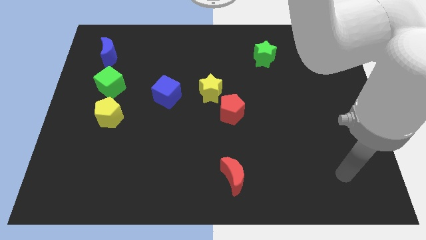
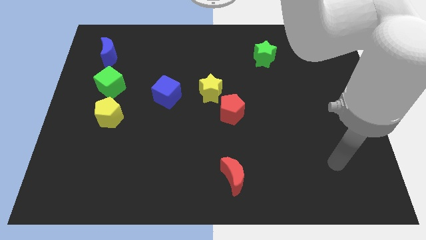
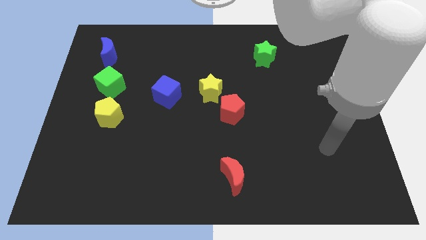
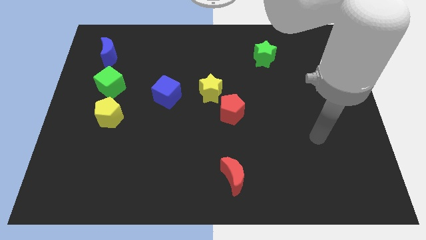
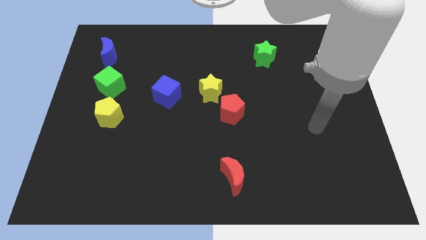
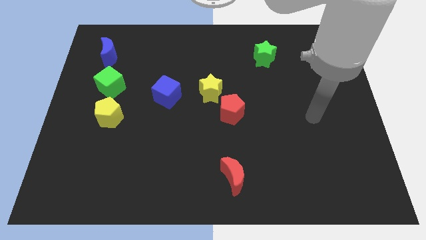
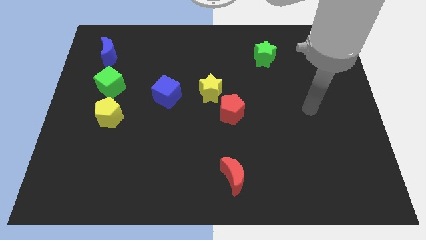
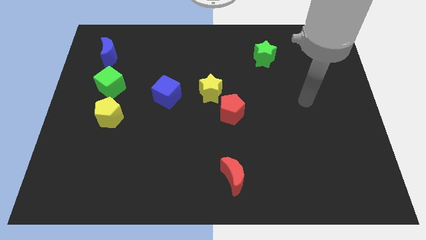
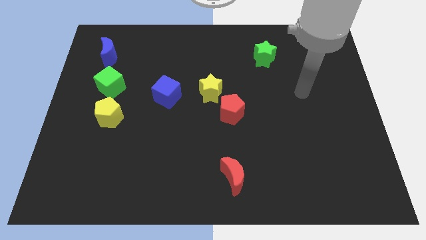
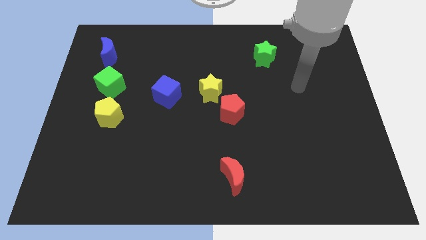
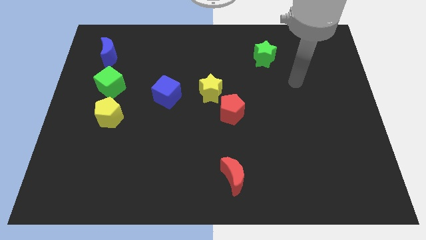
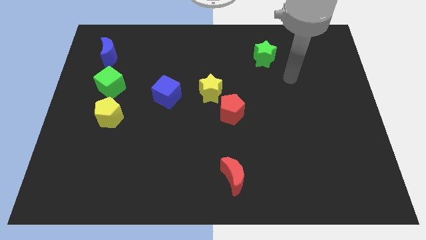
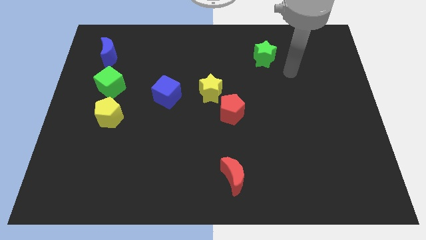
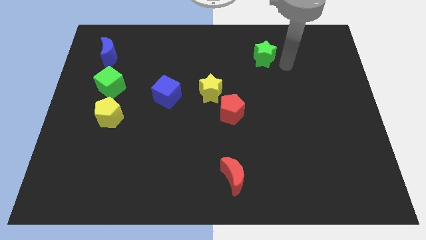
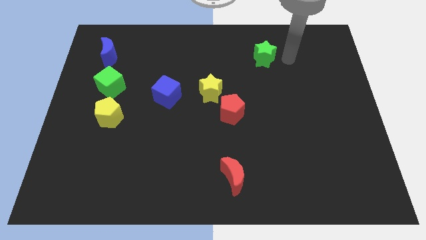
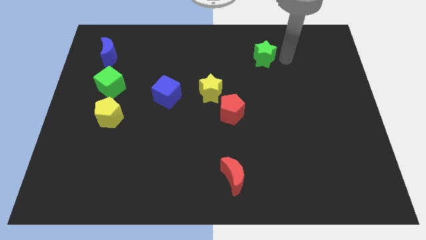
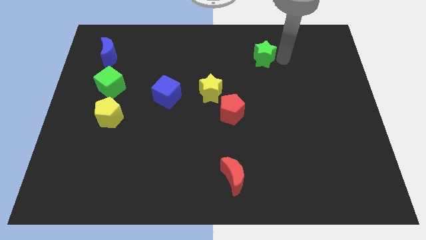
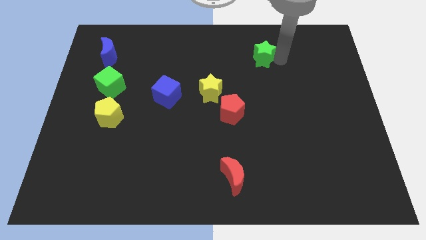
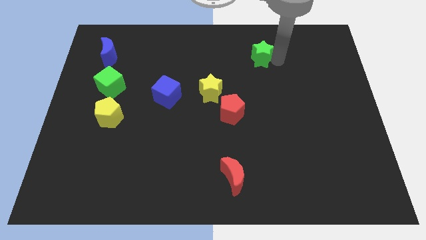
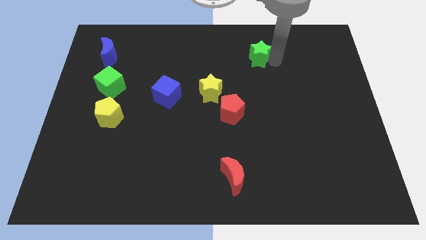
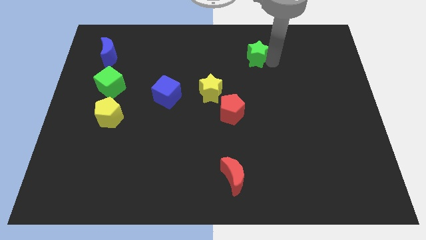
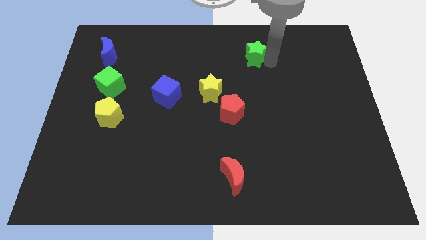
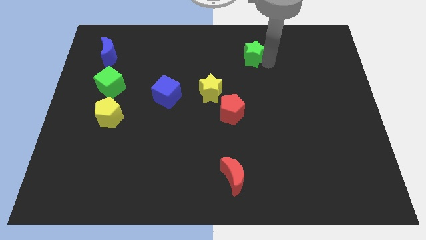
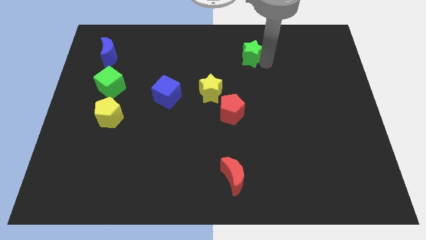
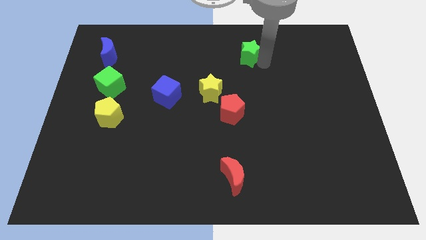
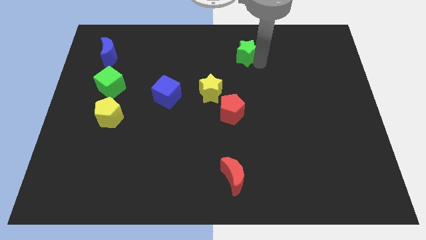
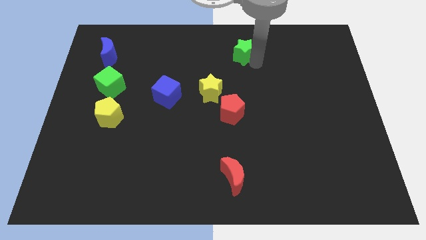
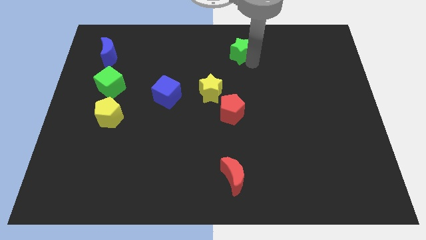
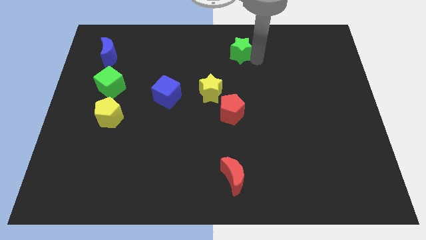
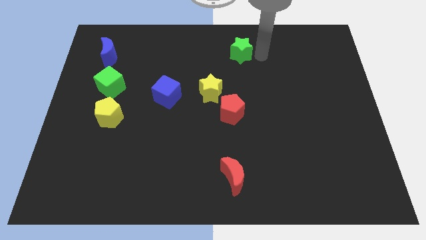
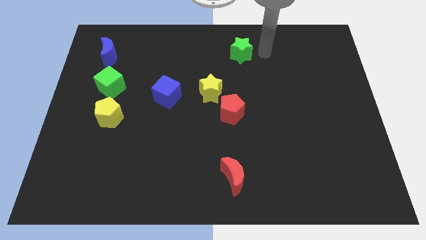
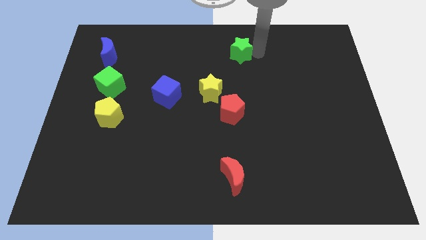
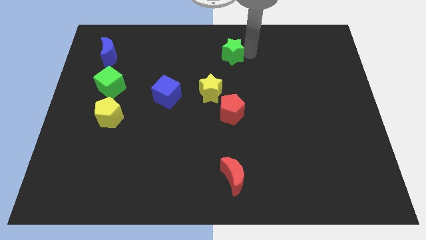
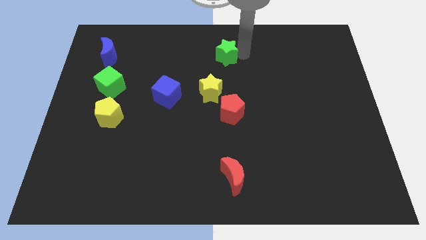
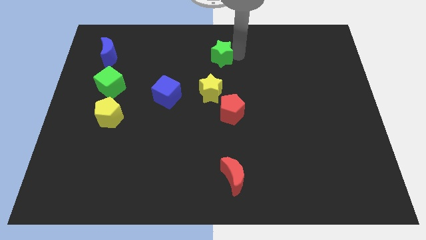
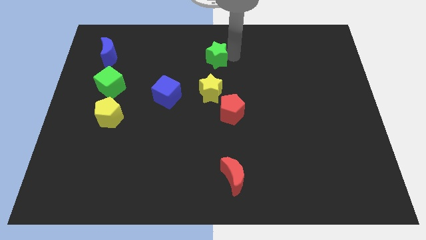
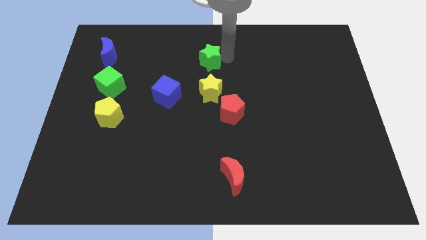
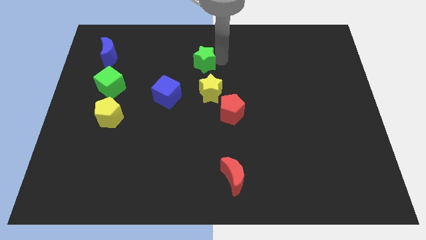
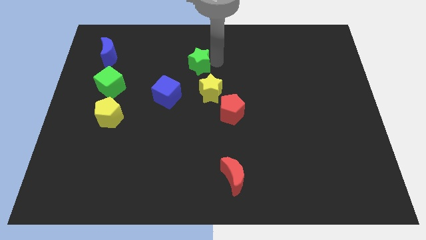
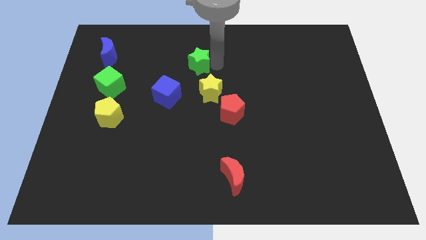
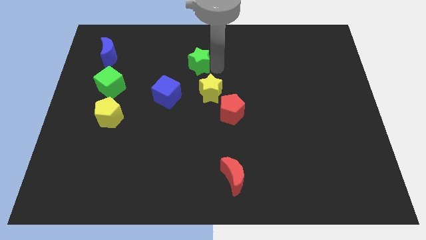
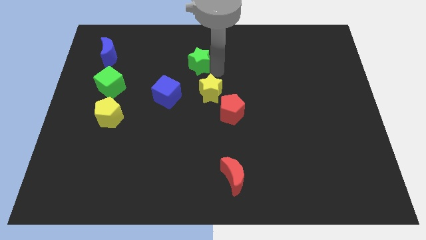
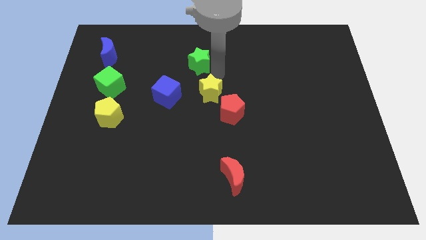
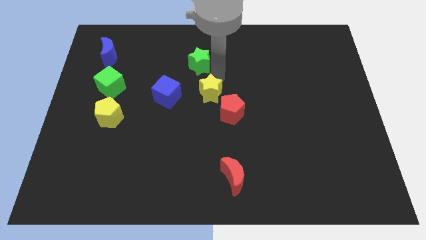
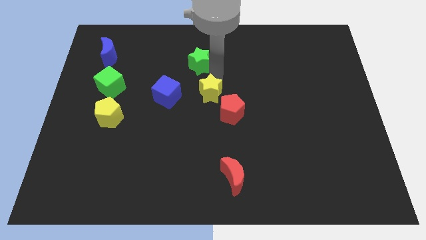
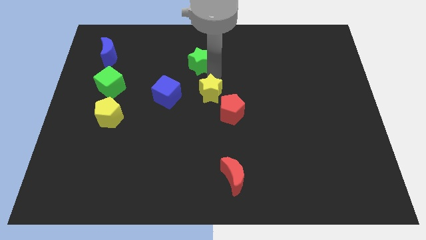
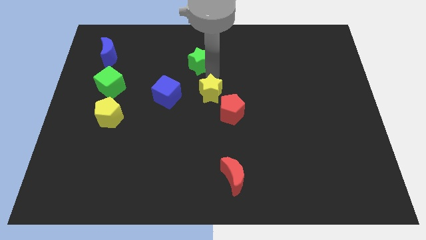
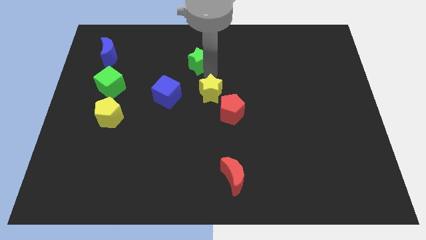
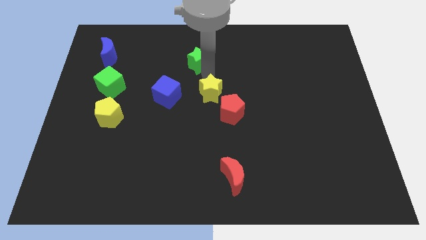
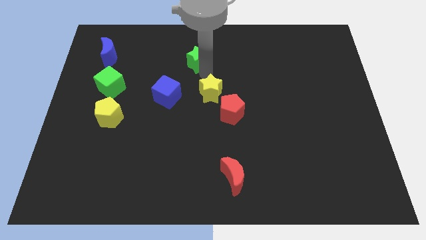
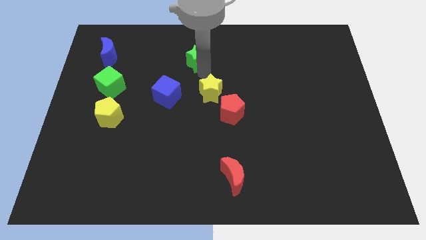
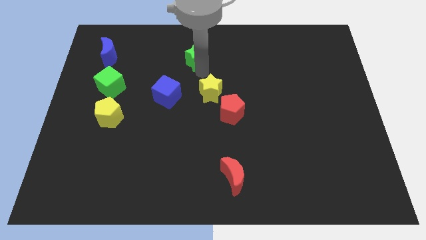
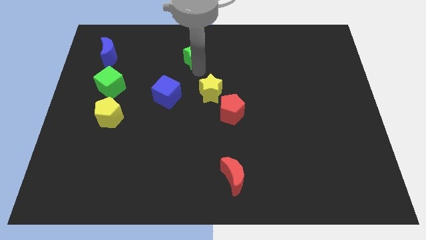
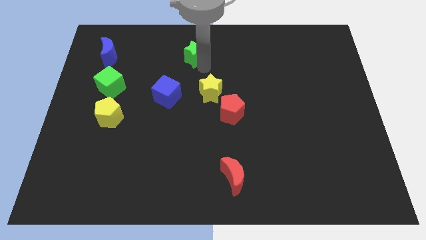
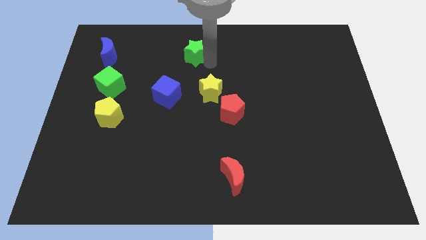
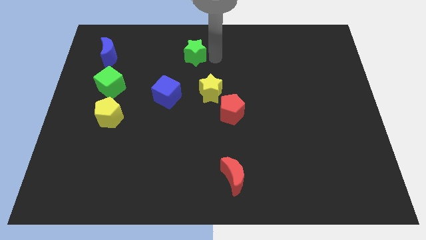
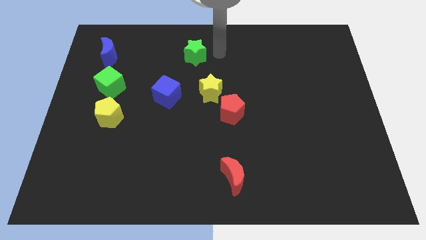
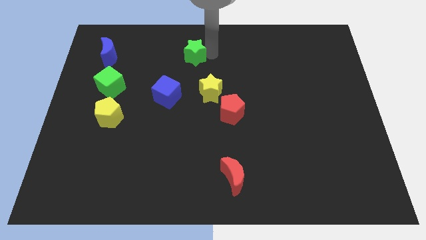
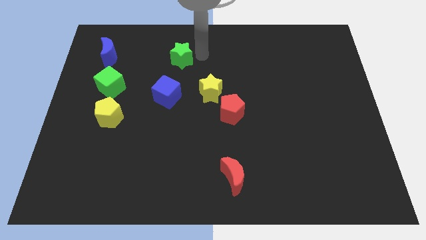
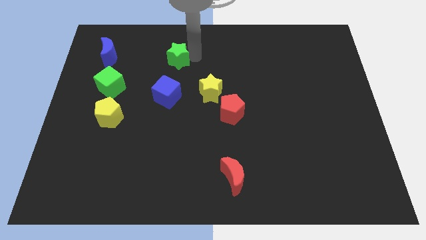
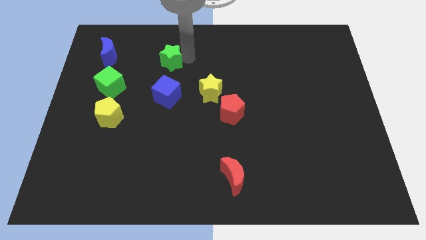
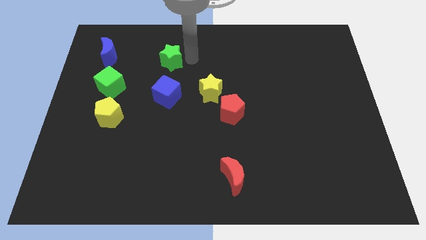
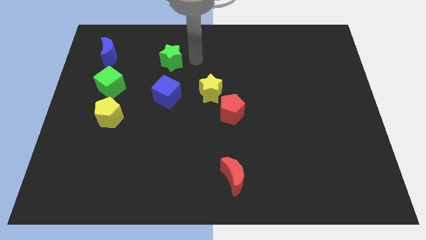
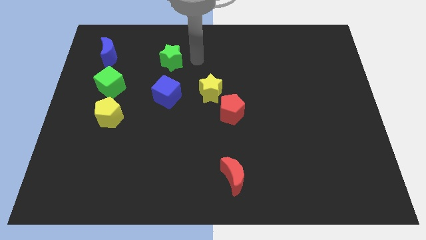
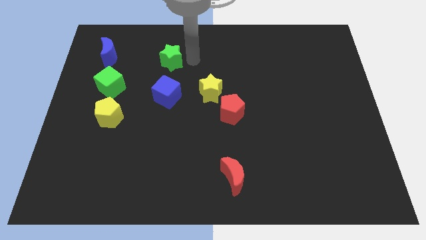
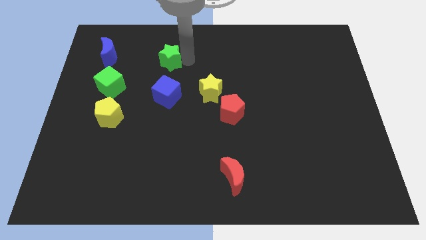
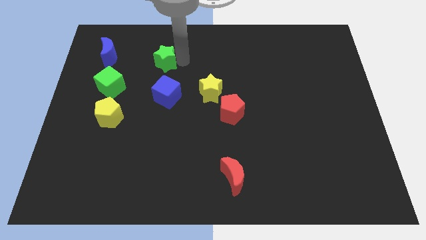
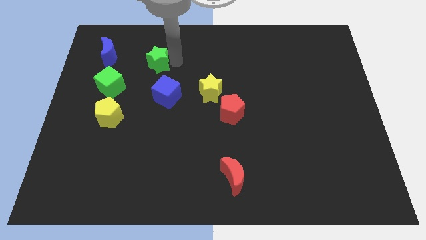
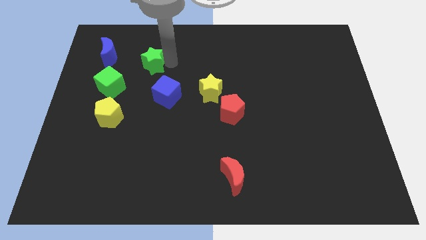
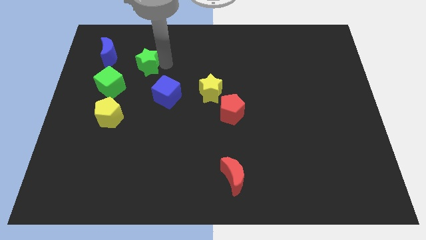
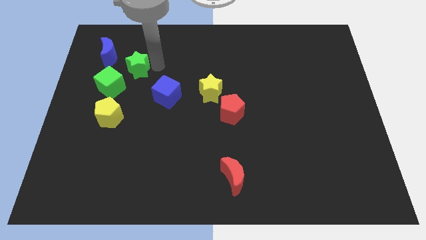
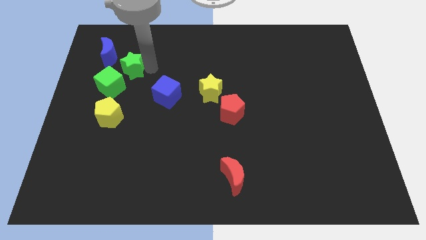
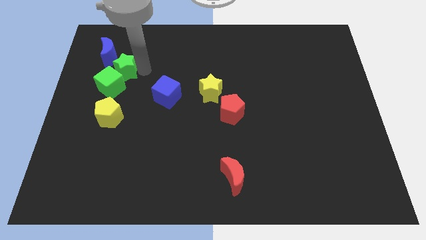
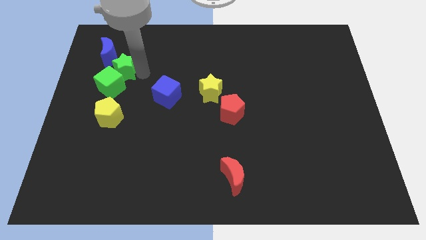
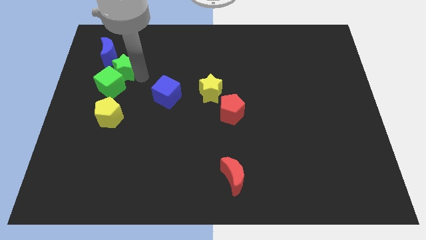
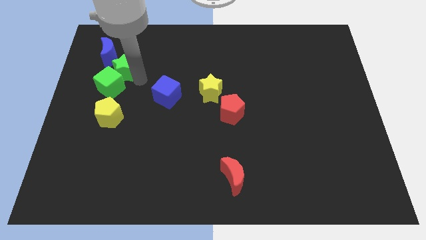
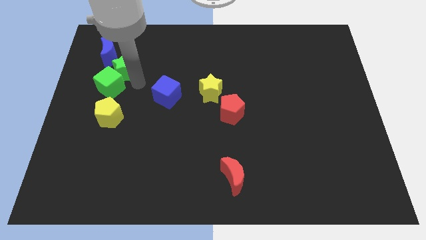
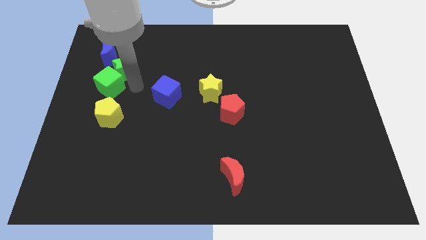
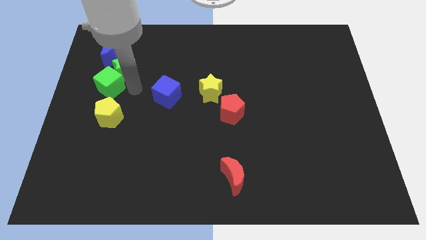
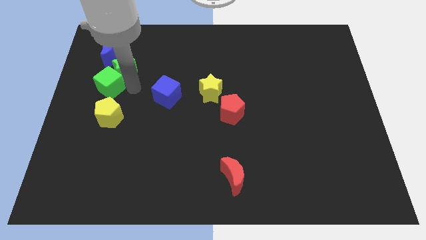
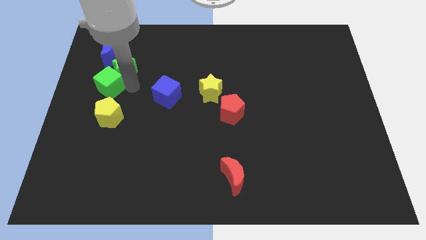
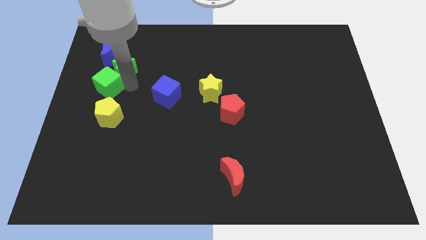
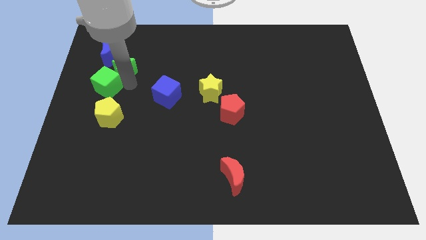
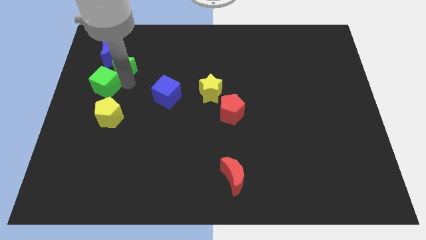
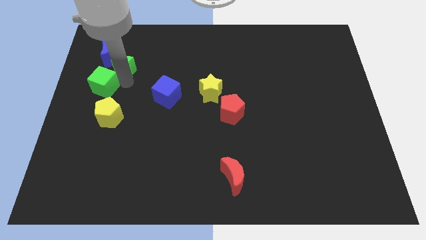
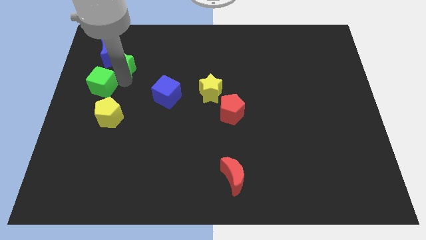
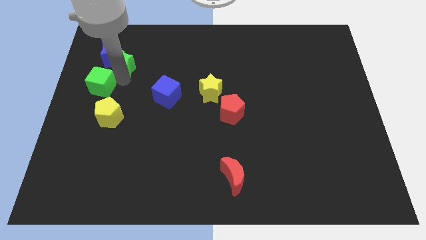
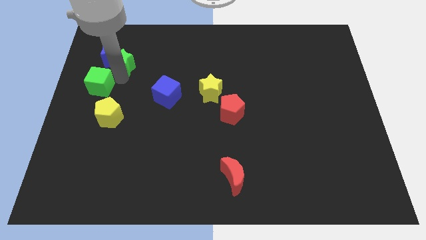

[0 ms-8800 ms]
push the green star close to the blue moon
